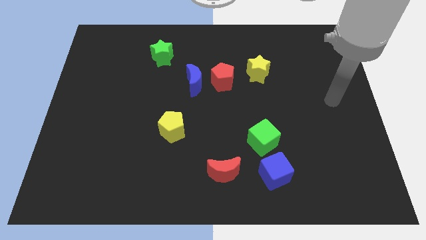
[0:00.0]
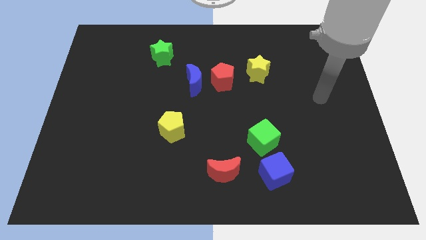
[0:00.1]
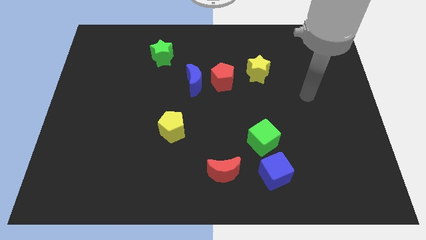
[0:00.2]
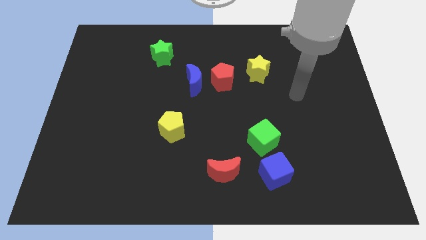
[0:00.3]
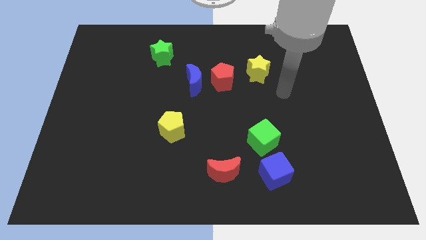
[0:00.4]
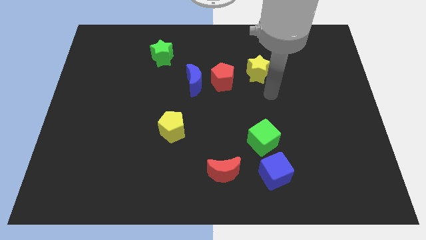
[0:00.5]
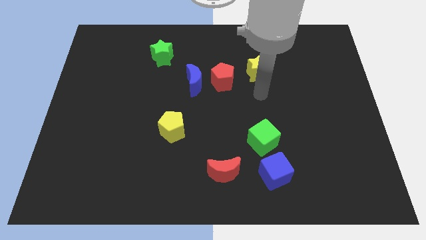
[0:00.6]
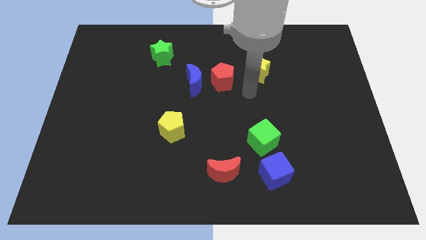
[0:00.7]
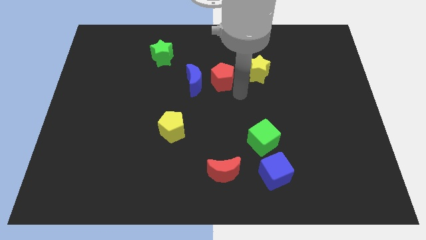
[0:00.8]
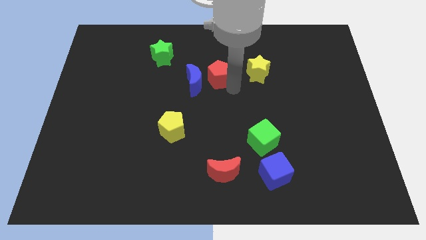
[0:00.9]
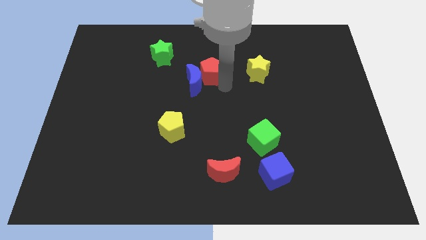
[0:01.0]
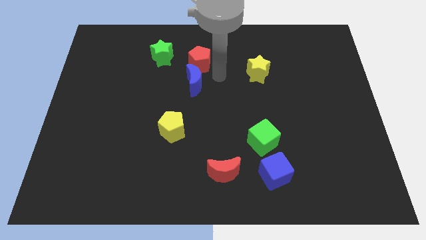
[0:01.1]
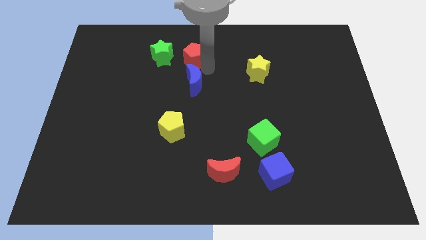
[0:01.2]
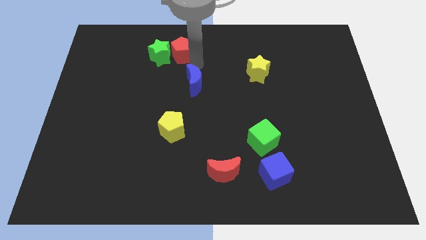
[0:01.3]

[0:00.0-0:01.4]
pull the blue moon apart from the red pentagon

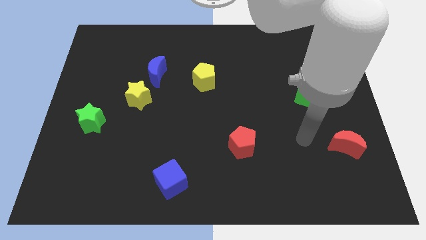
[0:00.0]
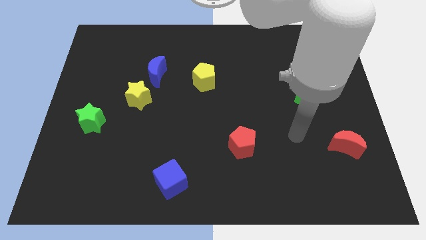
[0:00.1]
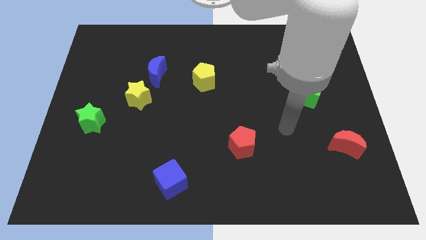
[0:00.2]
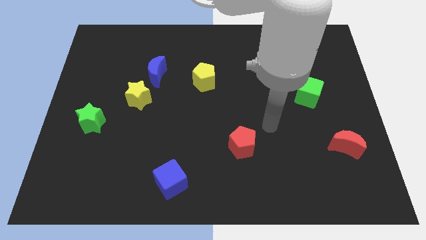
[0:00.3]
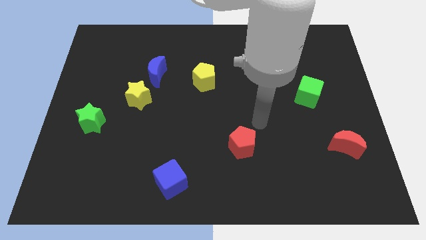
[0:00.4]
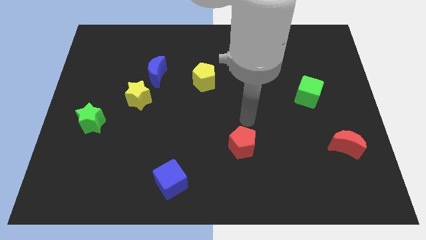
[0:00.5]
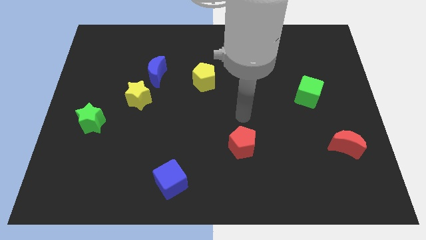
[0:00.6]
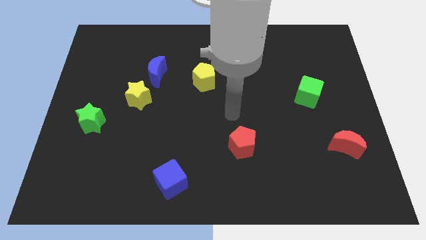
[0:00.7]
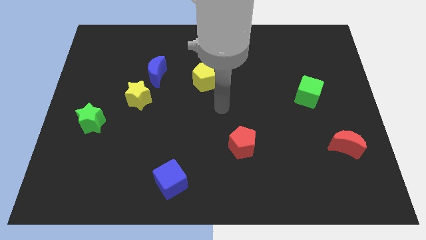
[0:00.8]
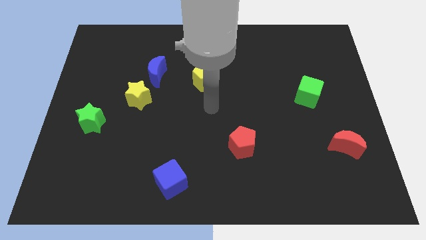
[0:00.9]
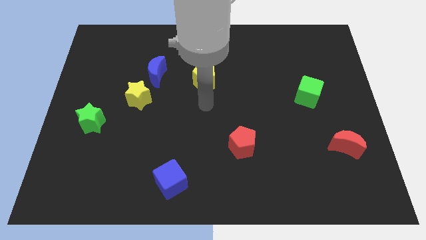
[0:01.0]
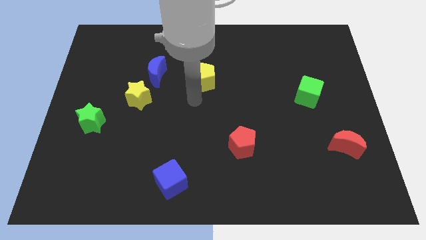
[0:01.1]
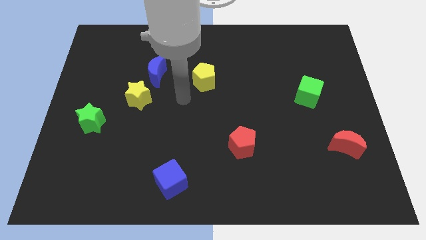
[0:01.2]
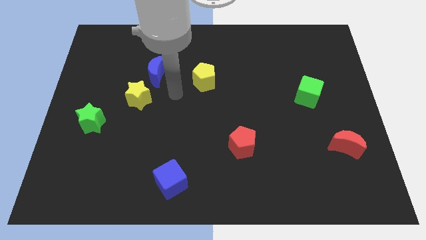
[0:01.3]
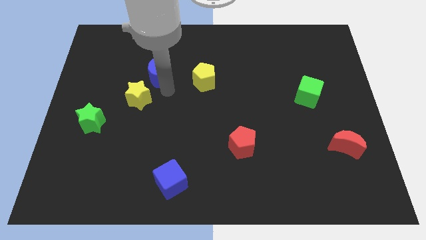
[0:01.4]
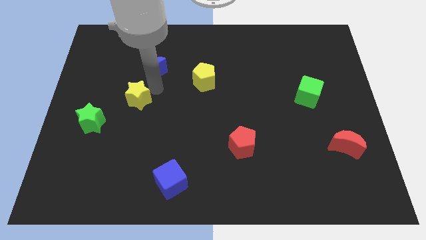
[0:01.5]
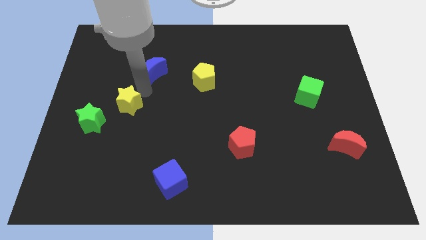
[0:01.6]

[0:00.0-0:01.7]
pull the blue moon apart from the yellow star

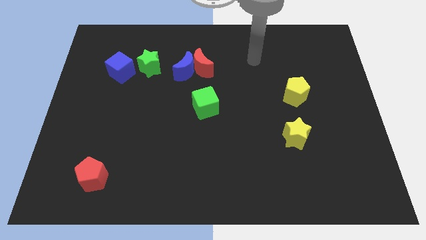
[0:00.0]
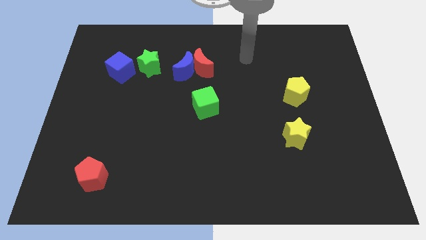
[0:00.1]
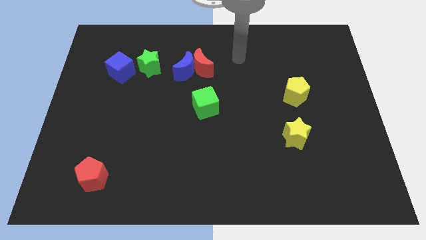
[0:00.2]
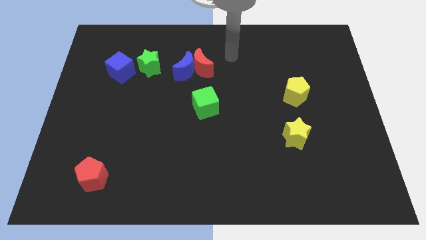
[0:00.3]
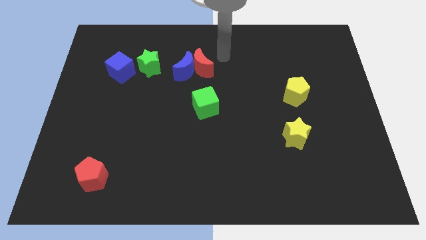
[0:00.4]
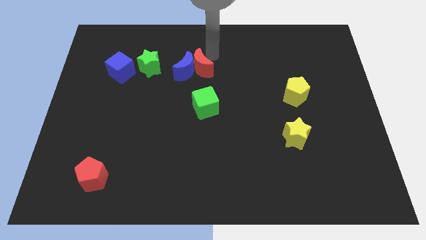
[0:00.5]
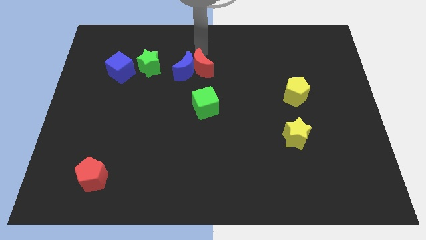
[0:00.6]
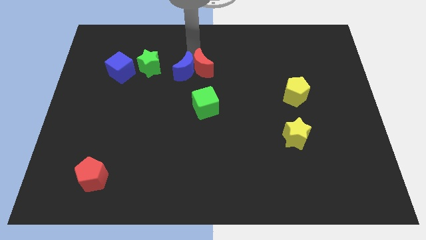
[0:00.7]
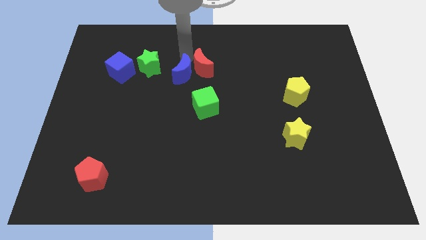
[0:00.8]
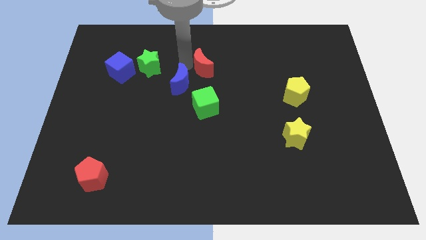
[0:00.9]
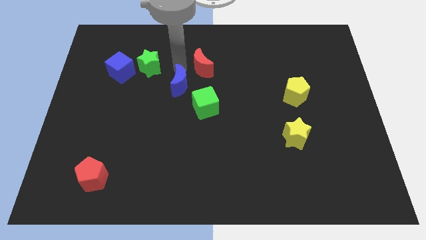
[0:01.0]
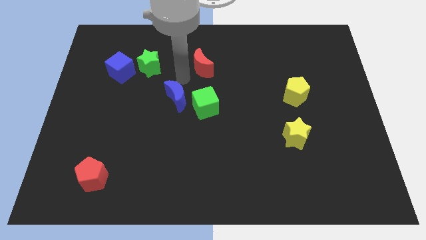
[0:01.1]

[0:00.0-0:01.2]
separate the red moon from the blue moon

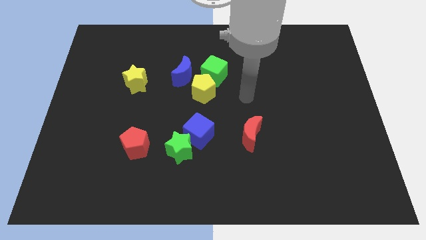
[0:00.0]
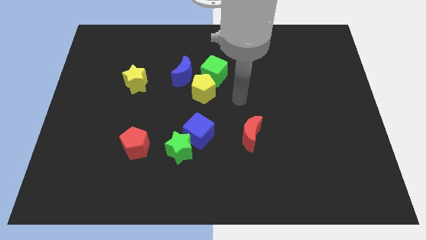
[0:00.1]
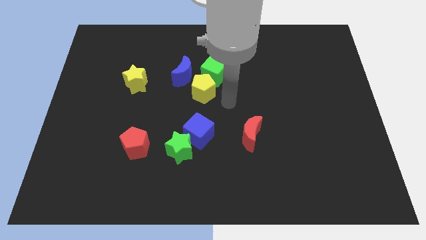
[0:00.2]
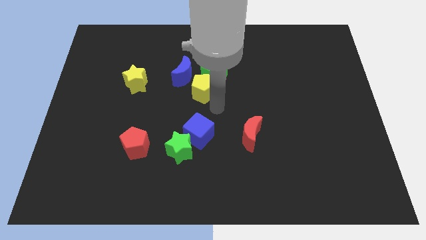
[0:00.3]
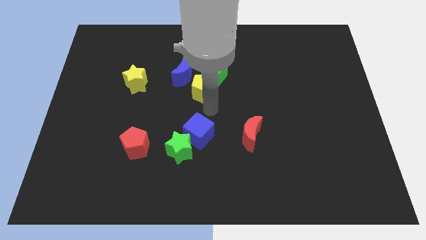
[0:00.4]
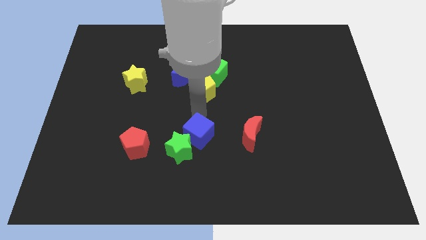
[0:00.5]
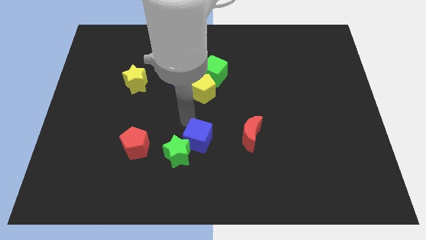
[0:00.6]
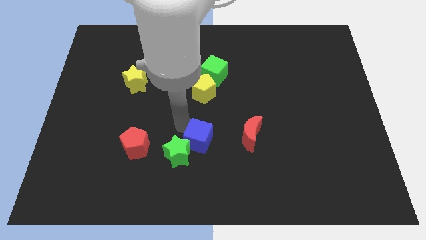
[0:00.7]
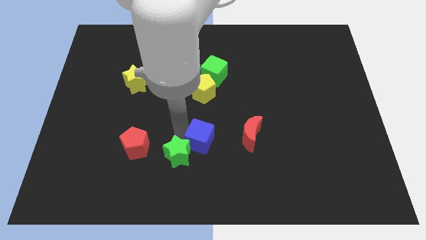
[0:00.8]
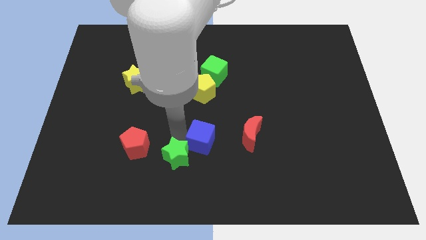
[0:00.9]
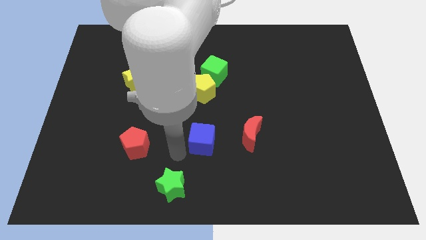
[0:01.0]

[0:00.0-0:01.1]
separate the blue cube from the green star

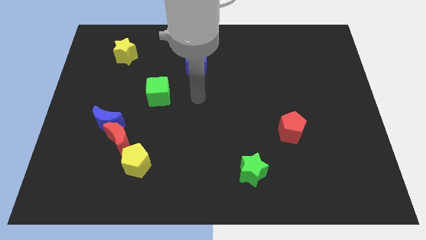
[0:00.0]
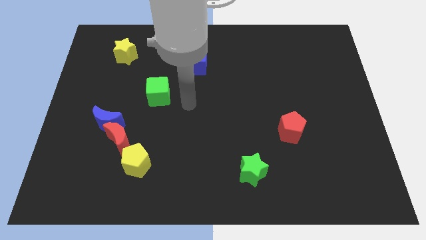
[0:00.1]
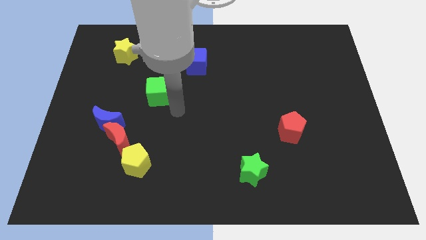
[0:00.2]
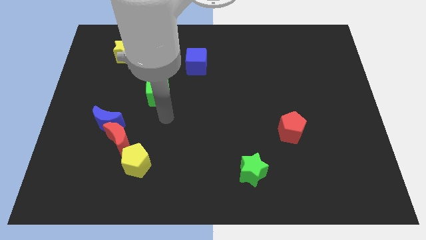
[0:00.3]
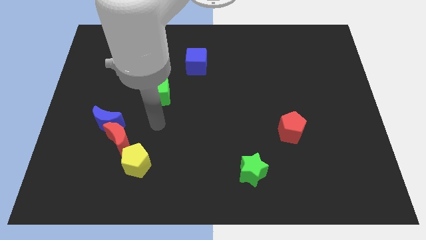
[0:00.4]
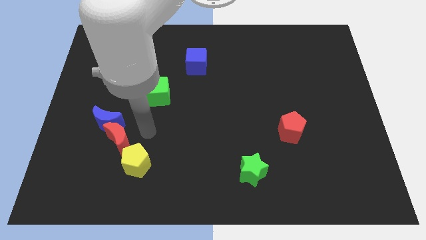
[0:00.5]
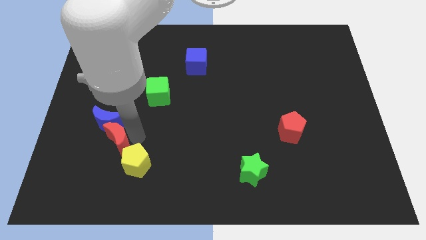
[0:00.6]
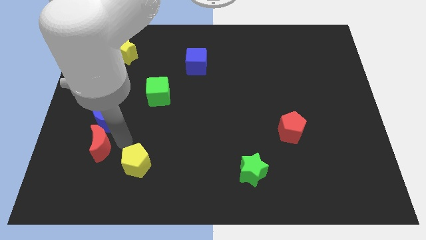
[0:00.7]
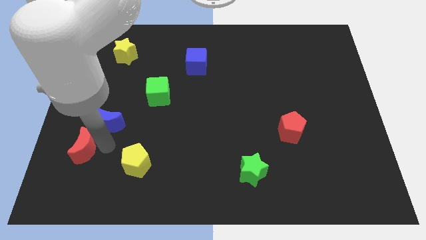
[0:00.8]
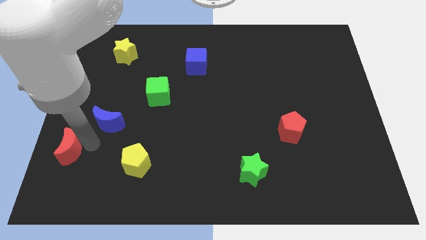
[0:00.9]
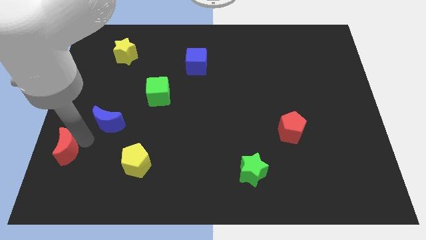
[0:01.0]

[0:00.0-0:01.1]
move the blue moon away from the red moon

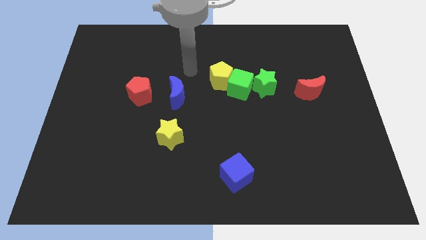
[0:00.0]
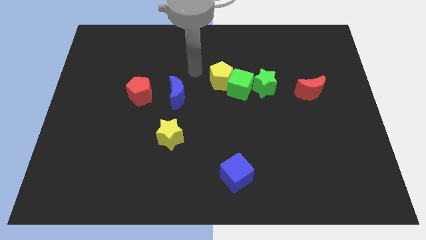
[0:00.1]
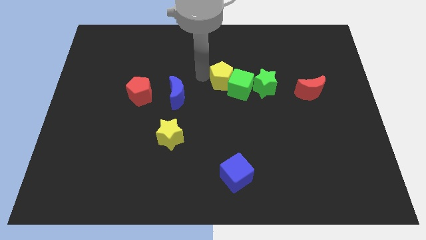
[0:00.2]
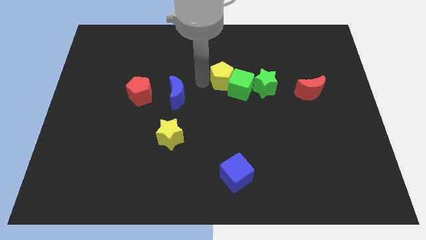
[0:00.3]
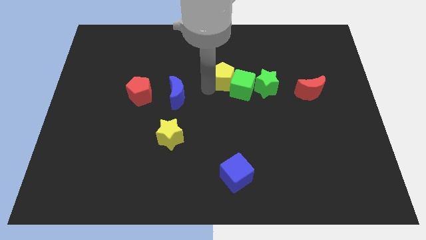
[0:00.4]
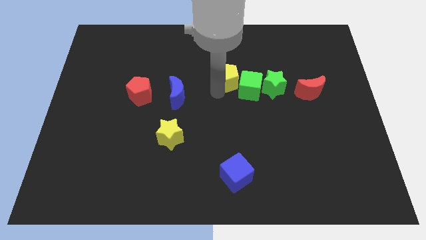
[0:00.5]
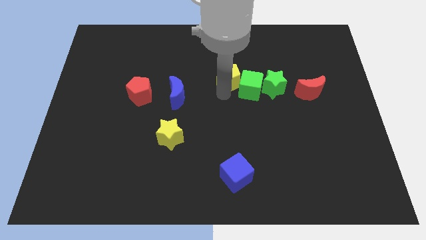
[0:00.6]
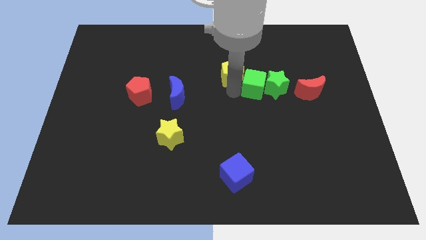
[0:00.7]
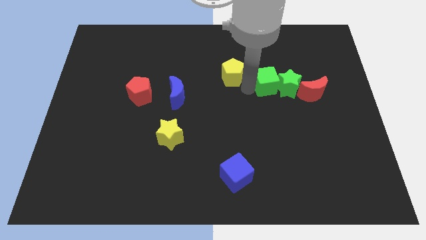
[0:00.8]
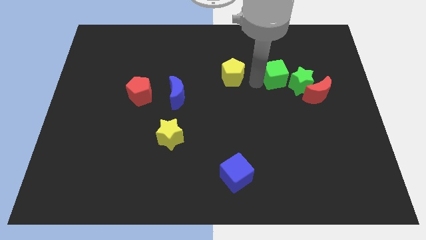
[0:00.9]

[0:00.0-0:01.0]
pull the yellow pentagon apart from the green cube

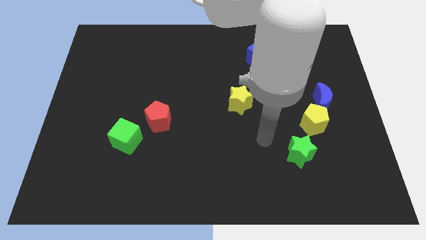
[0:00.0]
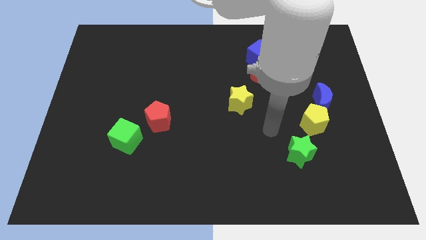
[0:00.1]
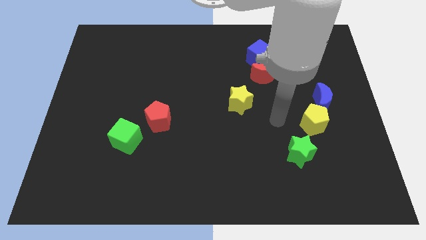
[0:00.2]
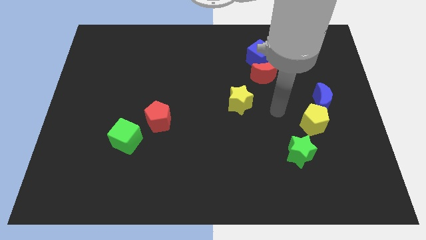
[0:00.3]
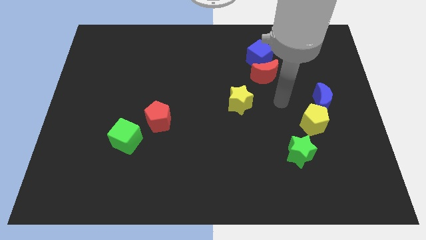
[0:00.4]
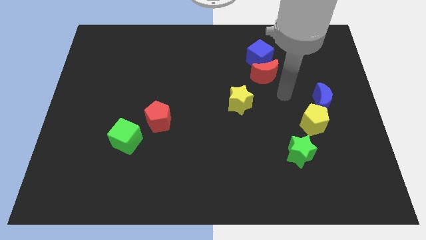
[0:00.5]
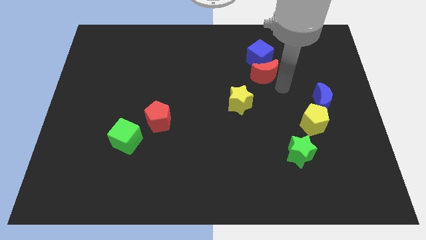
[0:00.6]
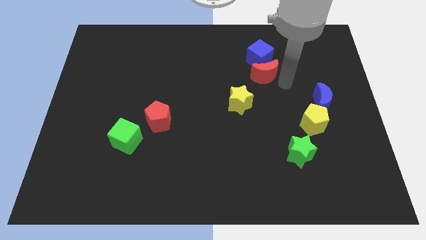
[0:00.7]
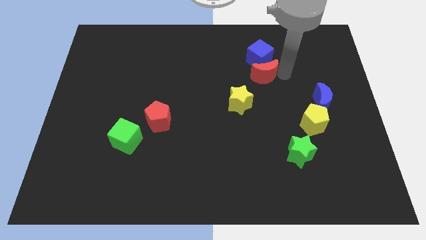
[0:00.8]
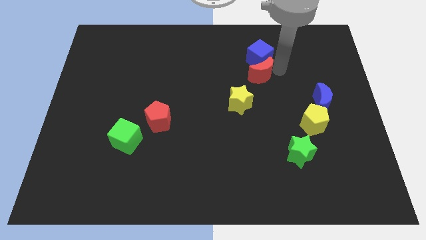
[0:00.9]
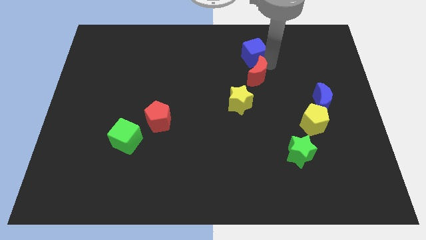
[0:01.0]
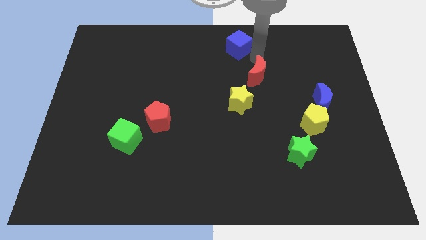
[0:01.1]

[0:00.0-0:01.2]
separate the red moon from the blue cube

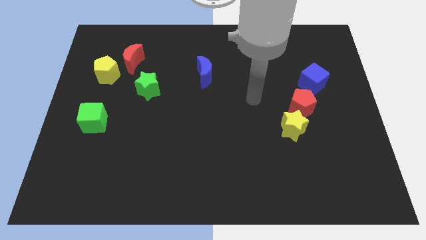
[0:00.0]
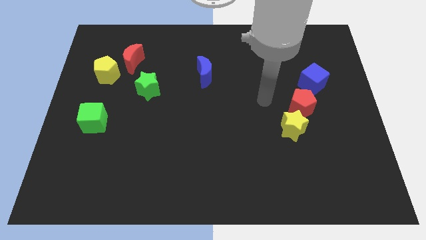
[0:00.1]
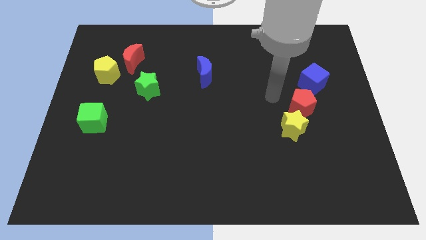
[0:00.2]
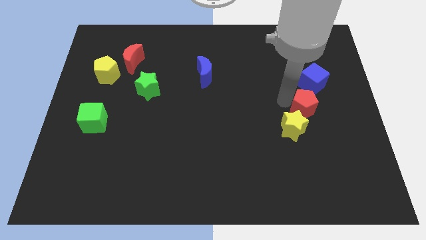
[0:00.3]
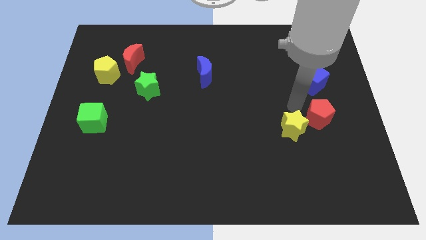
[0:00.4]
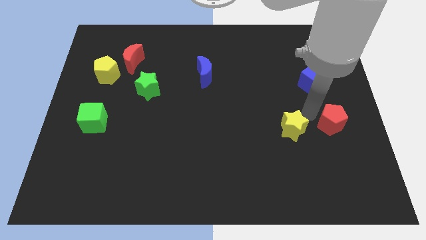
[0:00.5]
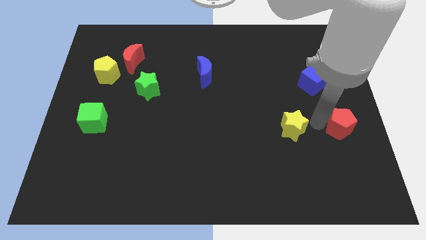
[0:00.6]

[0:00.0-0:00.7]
pull the yellow star apart from the red pentagon
